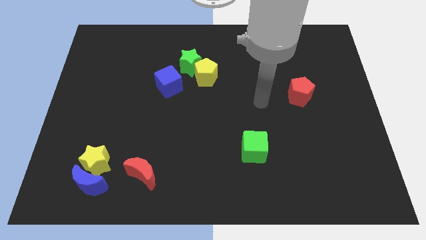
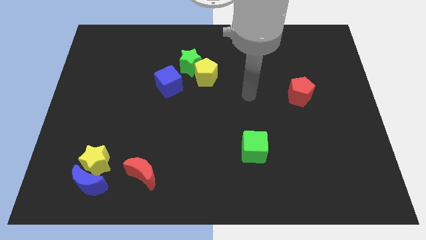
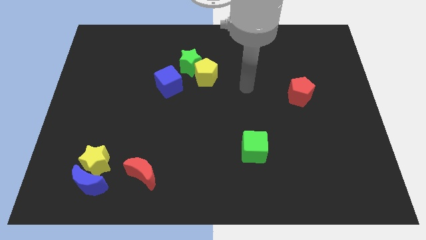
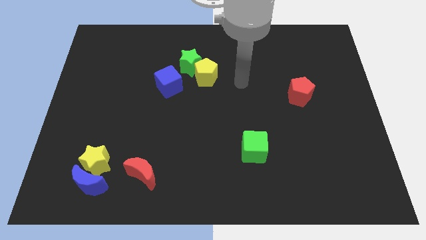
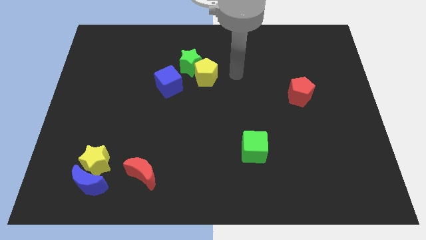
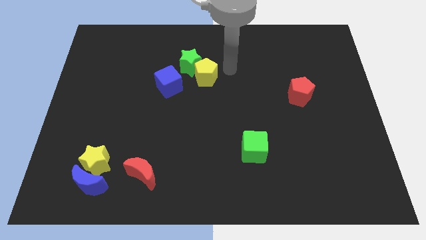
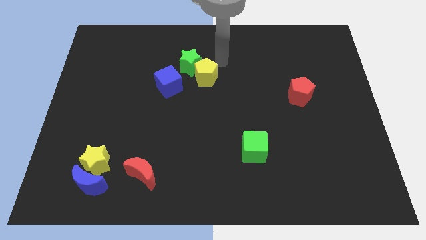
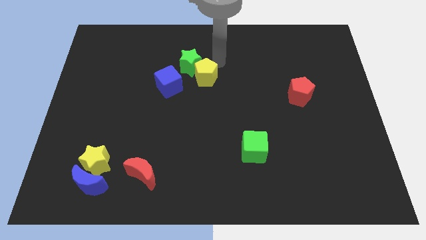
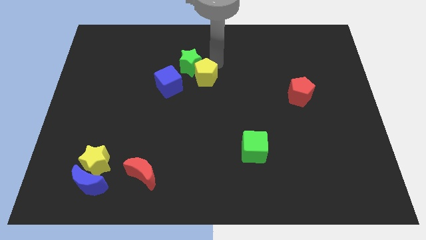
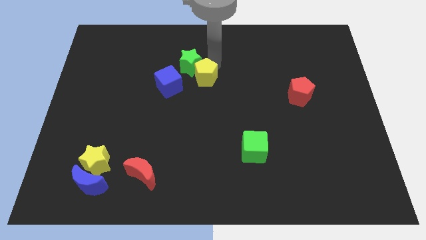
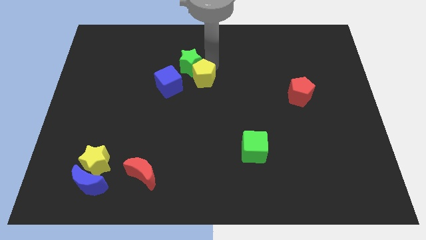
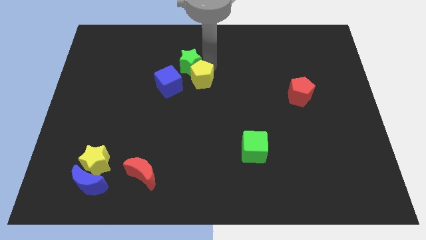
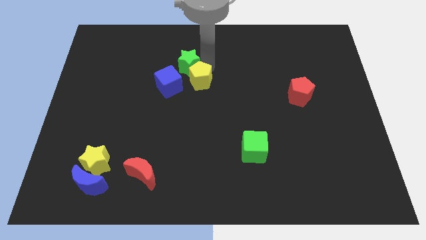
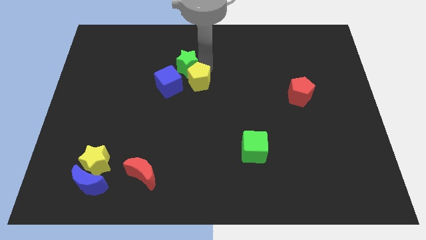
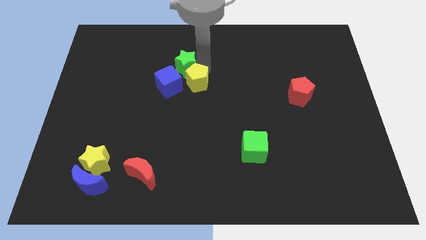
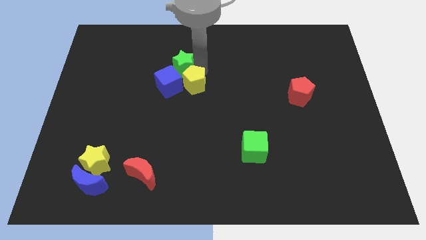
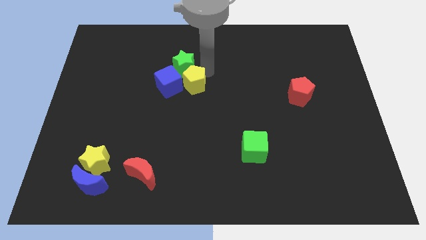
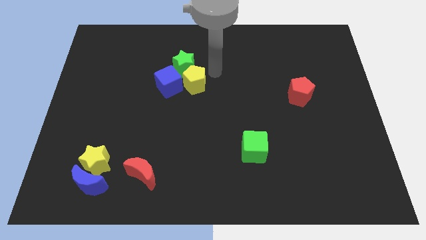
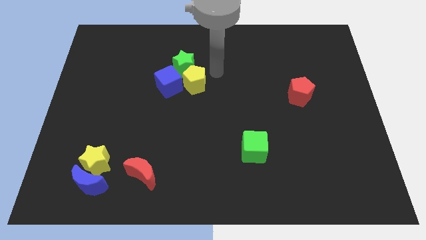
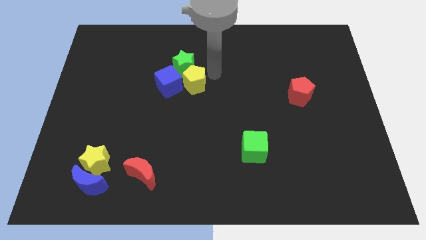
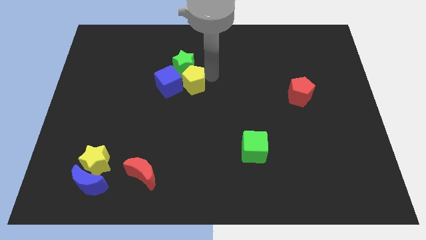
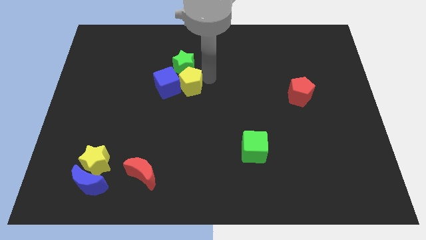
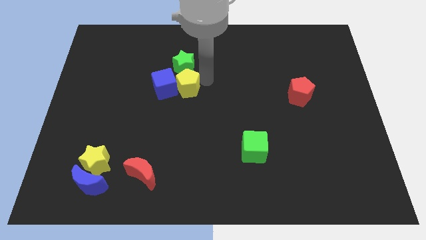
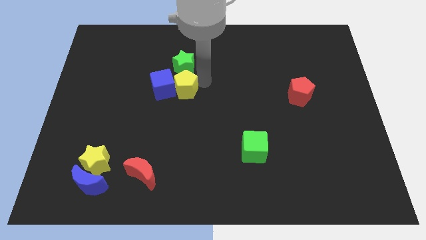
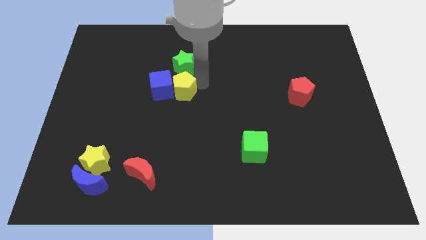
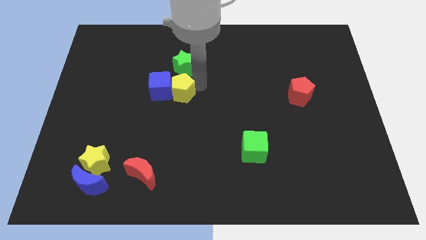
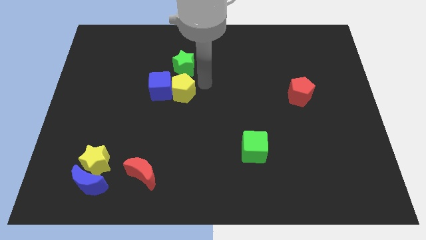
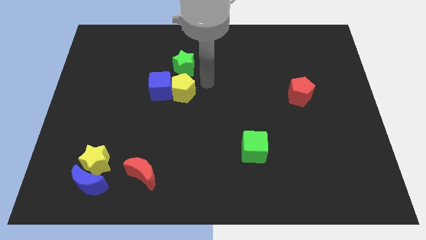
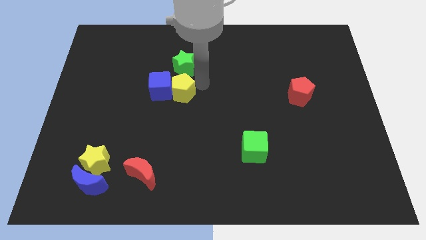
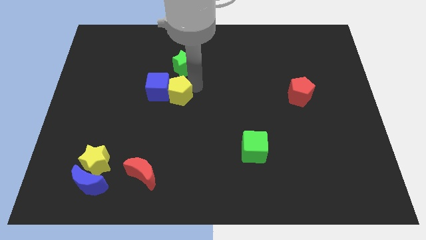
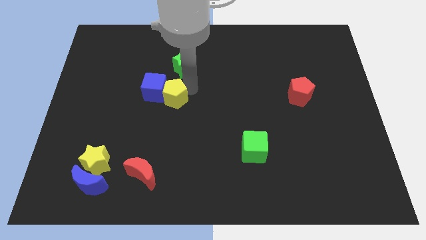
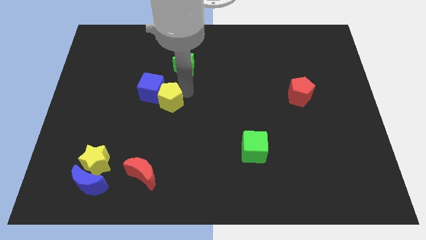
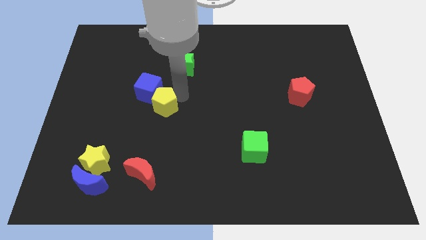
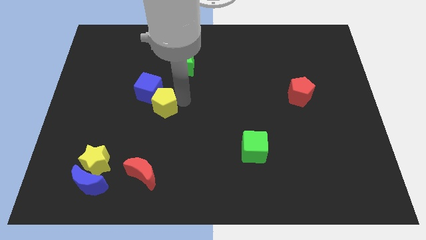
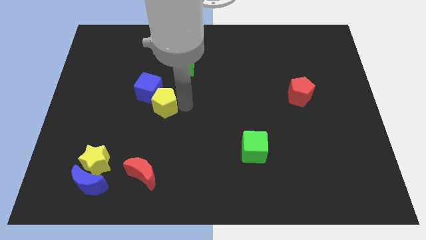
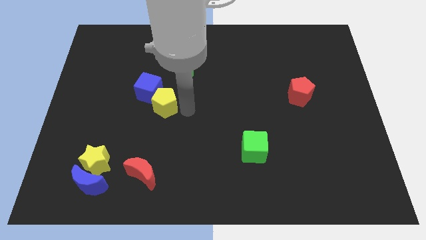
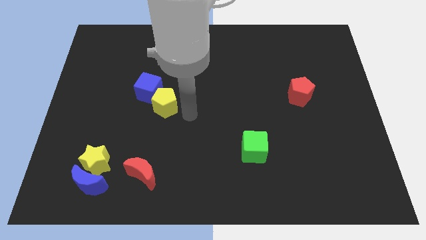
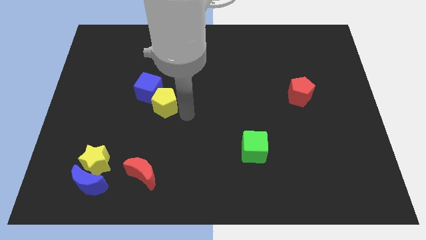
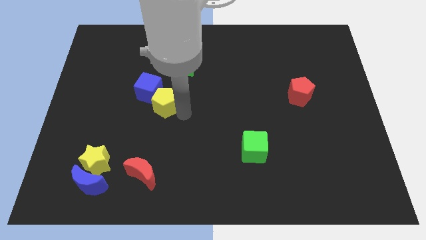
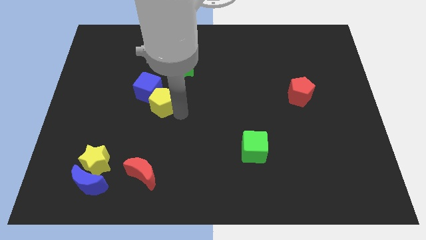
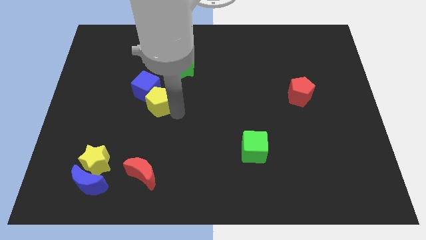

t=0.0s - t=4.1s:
push the yellow pentagon a bit left

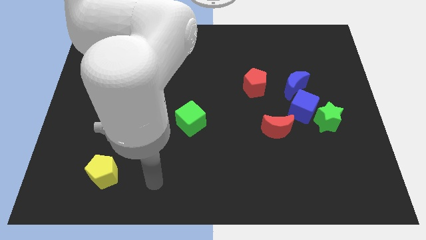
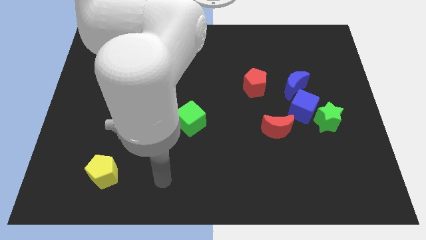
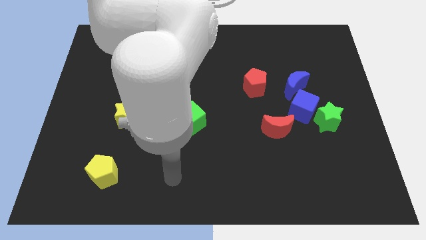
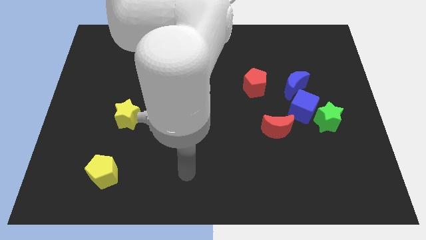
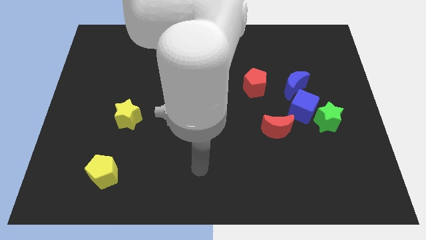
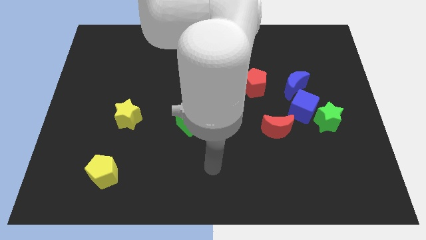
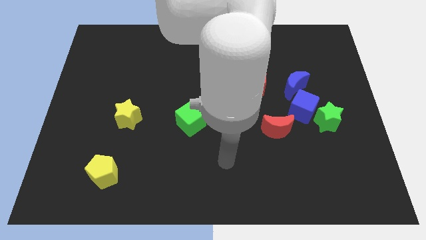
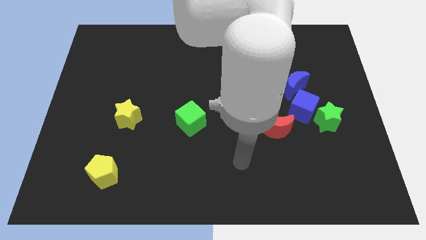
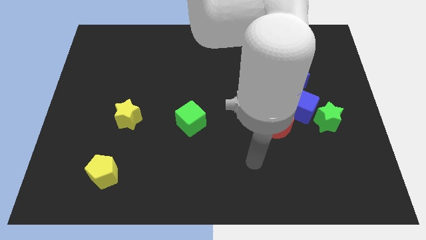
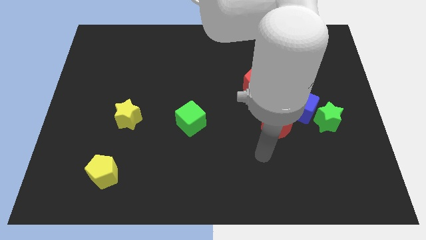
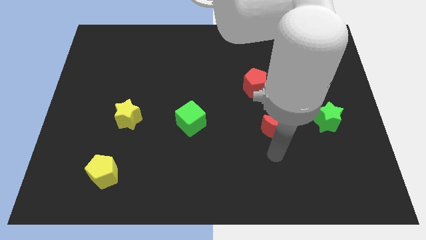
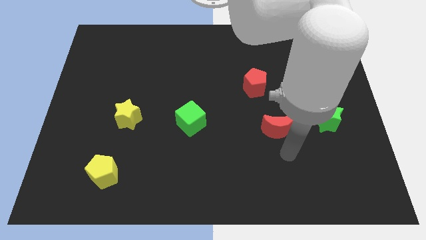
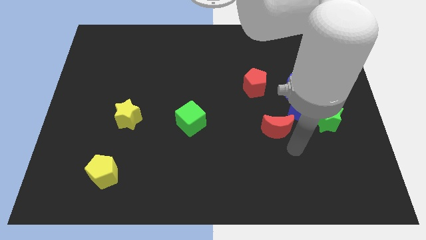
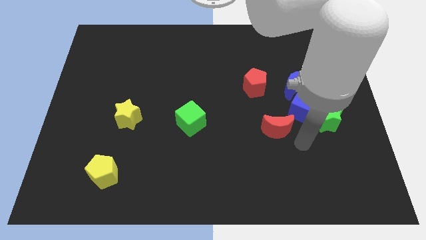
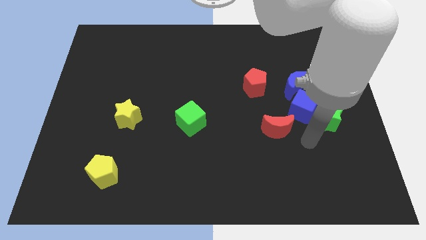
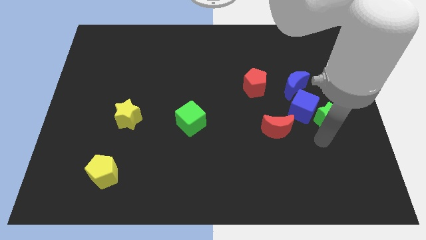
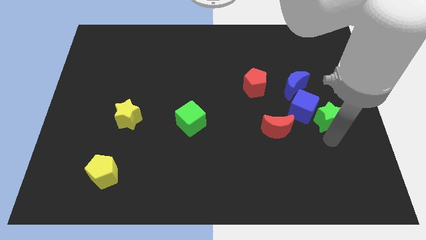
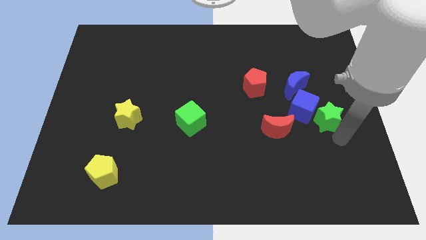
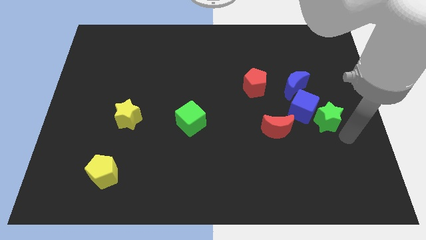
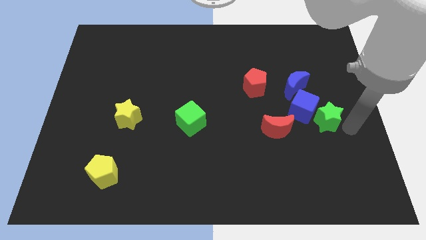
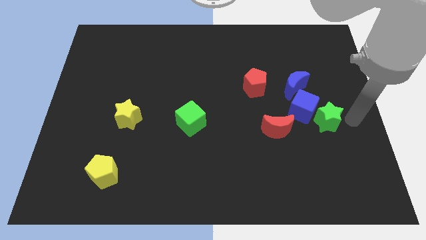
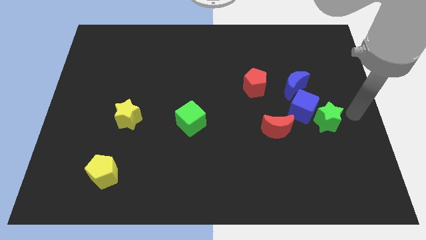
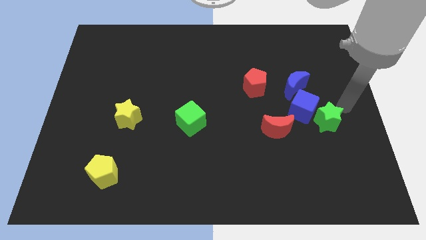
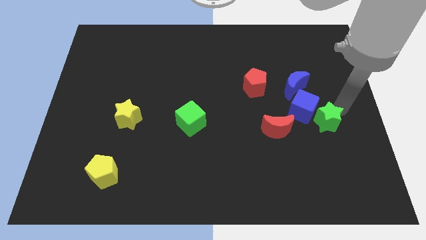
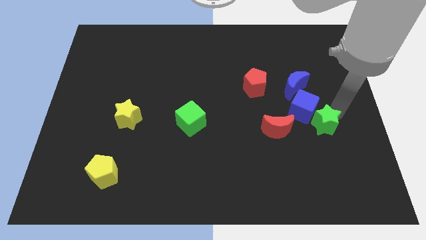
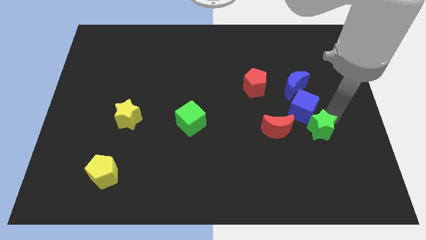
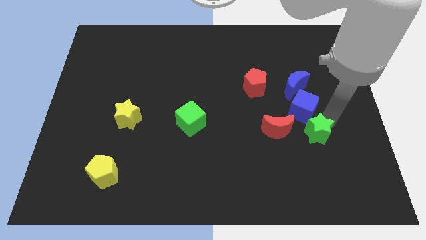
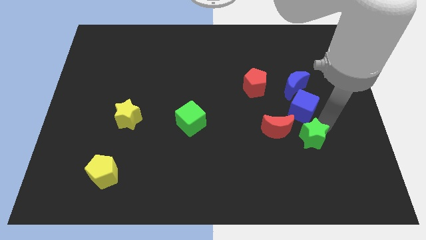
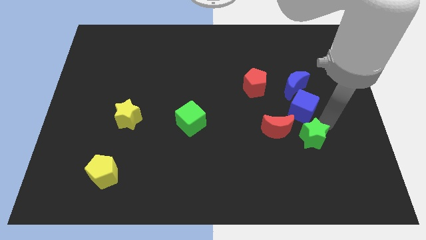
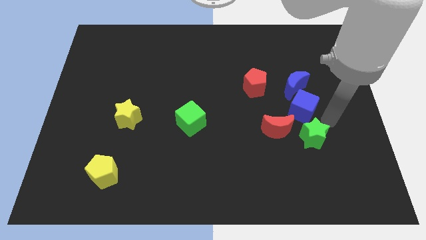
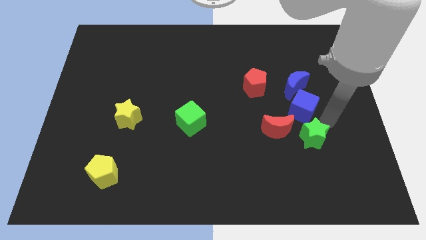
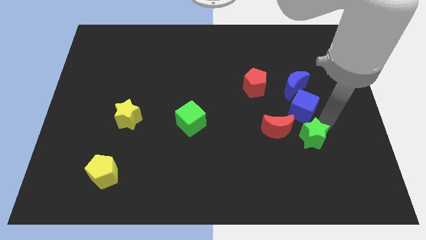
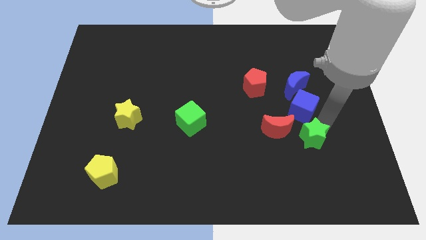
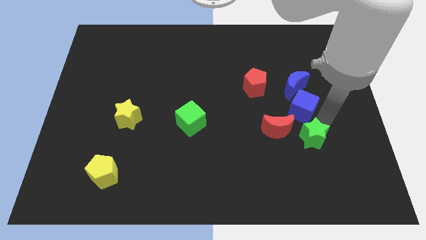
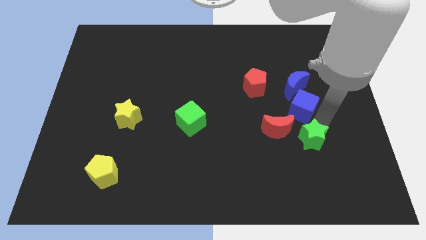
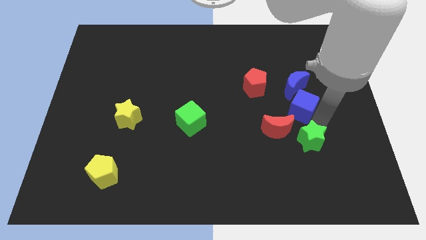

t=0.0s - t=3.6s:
push the green star a bit down and then to the left

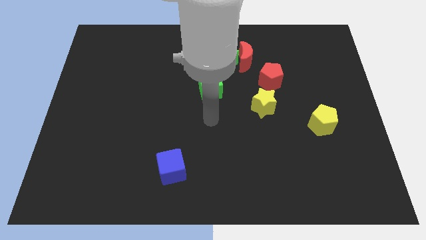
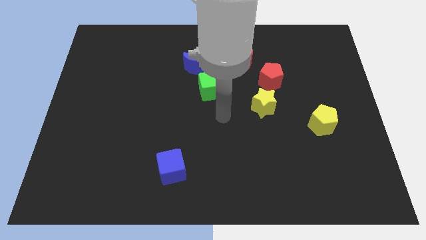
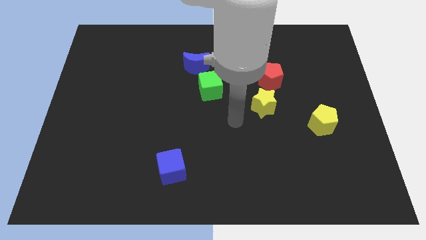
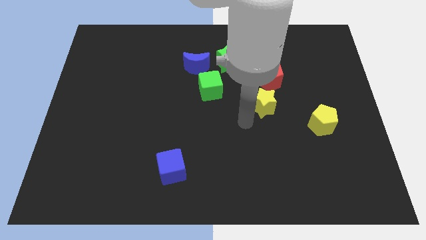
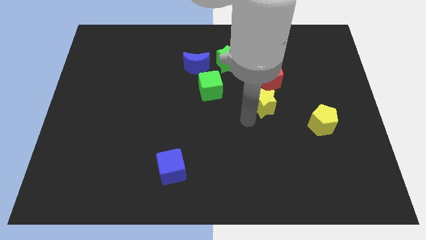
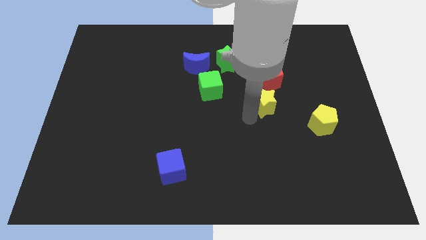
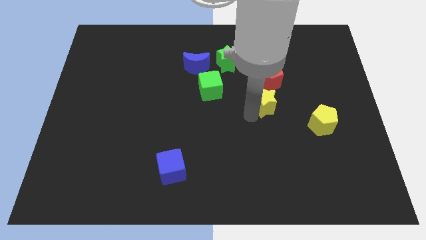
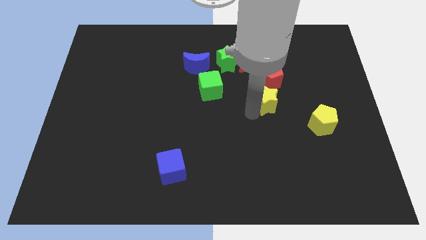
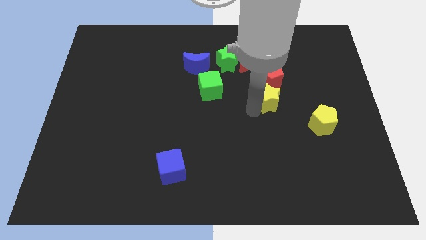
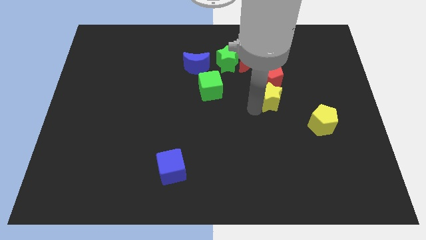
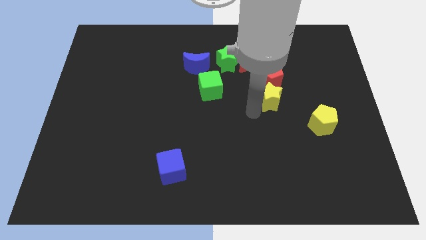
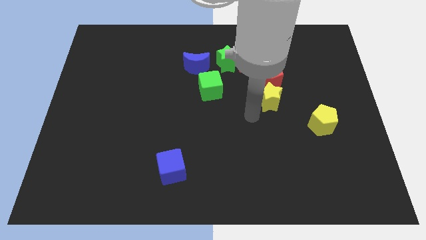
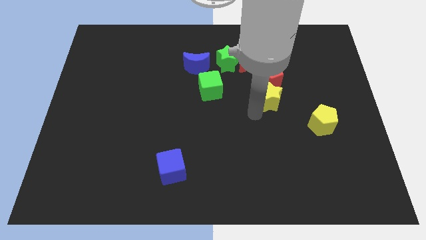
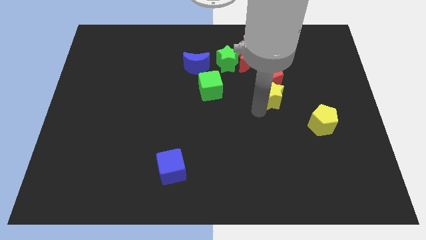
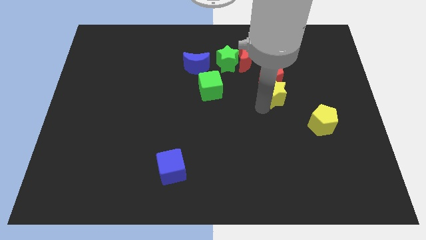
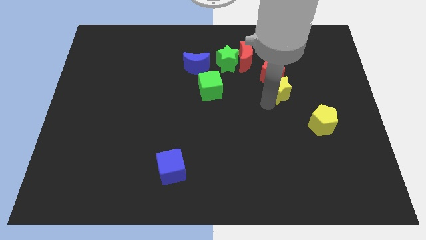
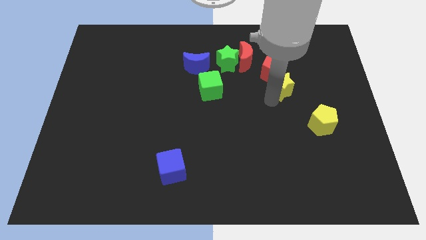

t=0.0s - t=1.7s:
slide the yellow star diagonally up and to the right somewhat
